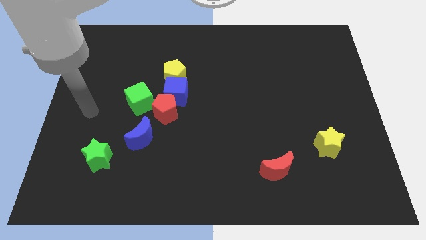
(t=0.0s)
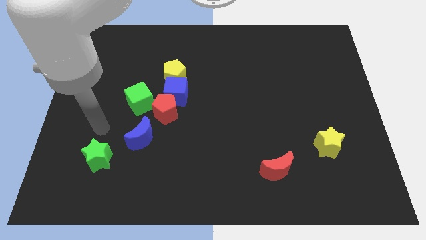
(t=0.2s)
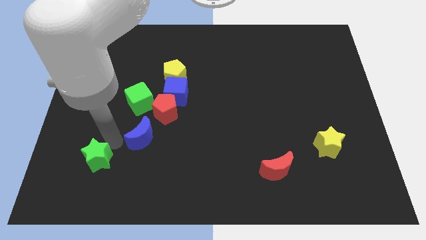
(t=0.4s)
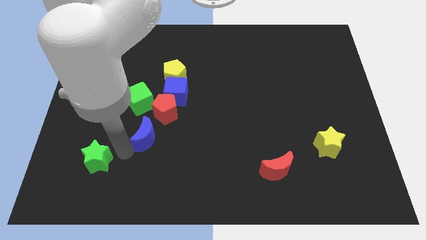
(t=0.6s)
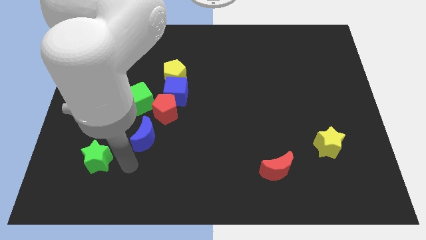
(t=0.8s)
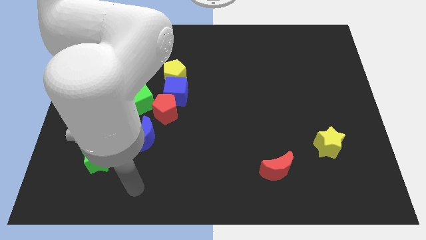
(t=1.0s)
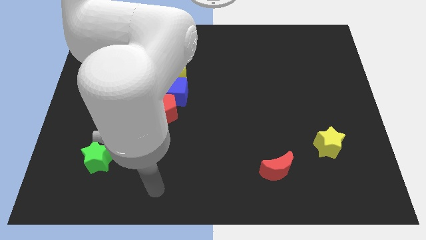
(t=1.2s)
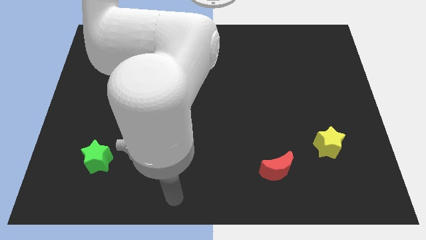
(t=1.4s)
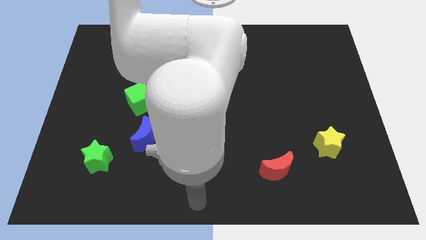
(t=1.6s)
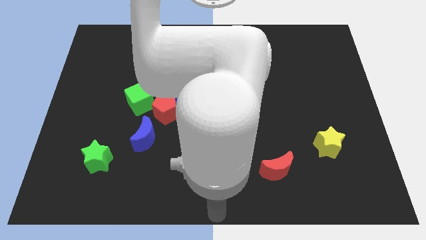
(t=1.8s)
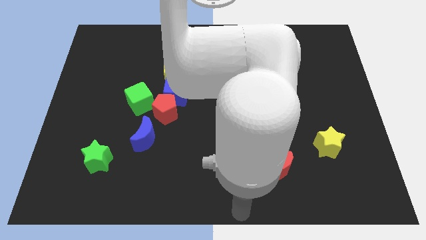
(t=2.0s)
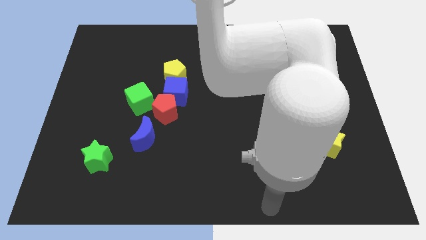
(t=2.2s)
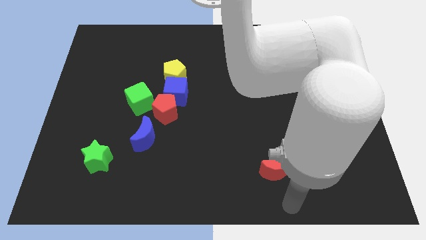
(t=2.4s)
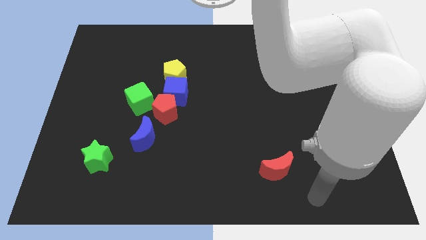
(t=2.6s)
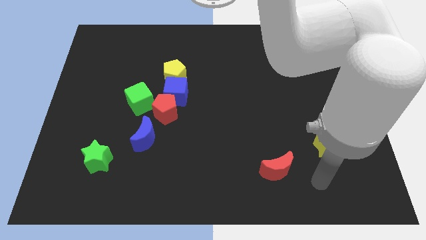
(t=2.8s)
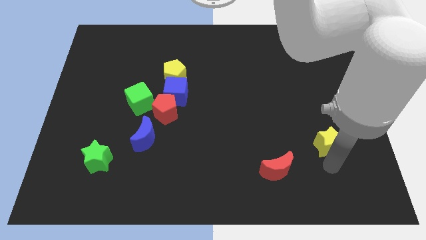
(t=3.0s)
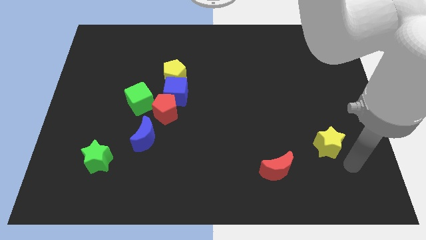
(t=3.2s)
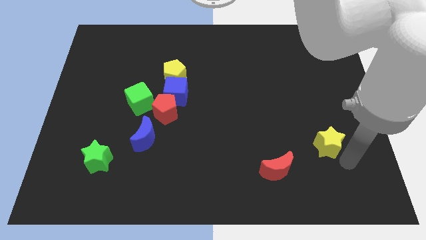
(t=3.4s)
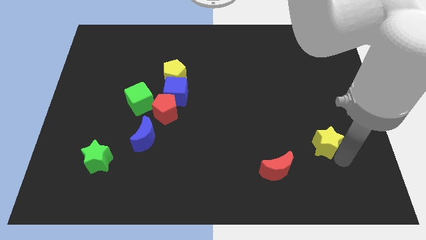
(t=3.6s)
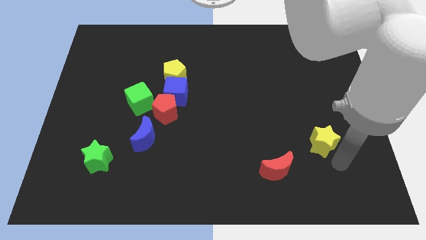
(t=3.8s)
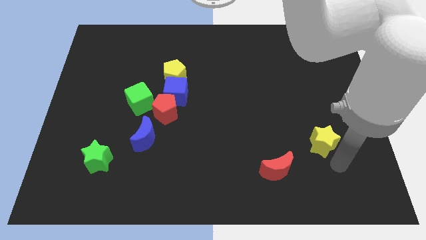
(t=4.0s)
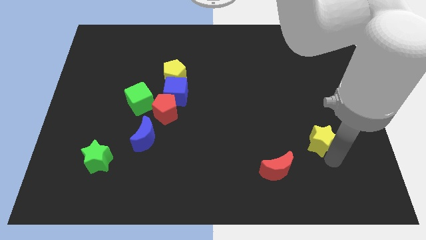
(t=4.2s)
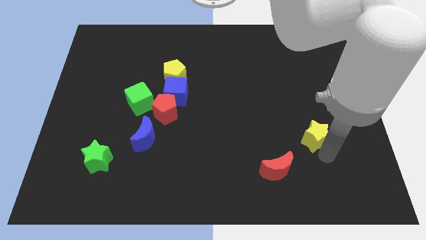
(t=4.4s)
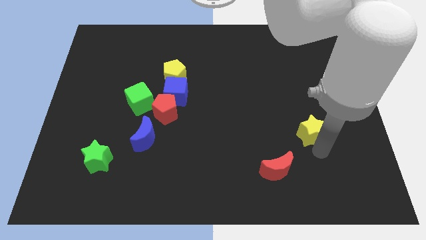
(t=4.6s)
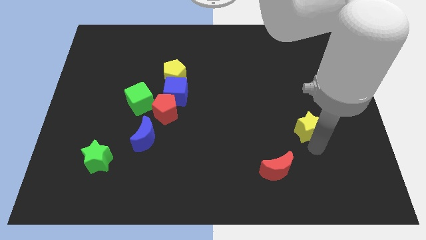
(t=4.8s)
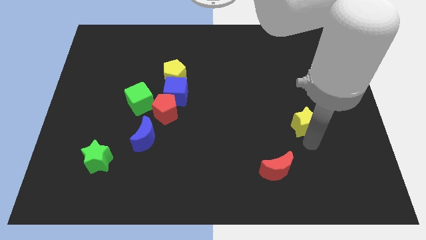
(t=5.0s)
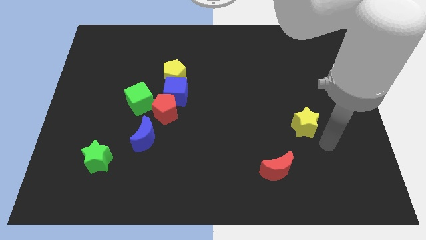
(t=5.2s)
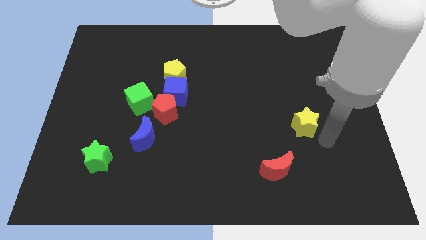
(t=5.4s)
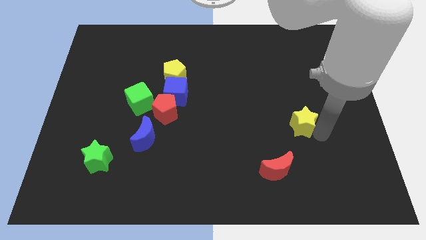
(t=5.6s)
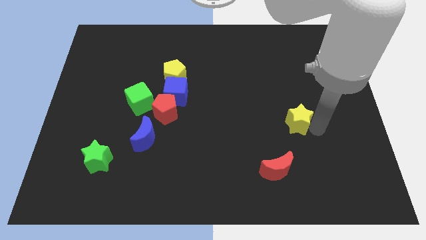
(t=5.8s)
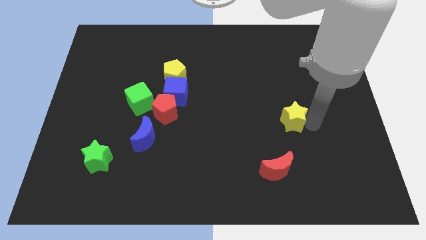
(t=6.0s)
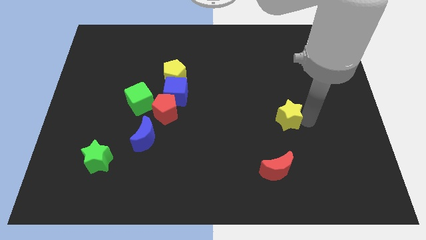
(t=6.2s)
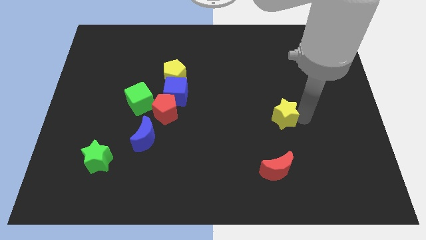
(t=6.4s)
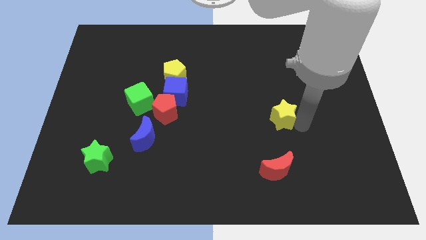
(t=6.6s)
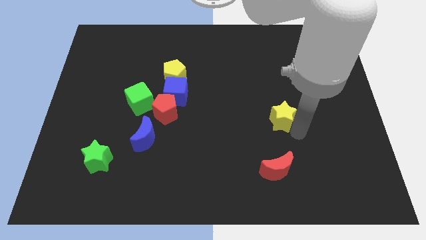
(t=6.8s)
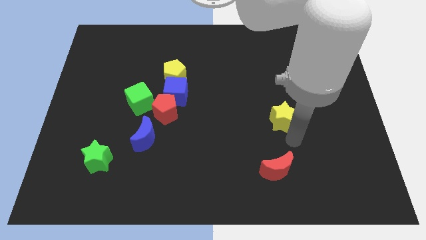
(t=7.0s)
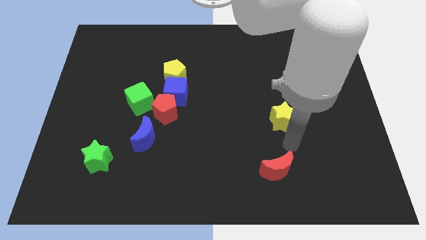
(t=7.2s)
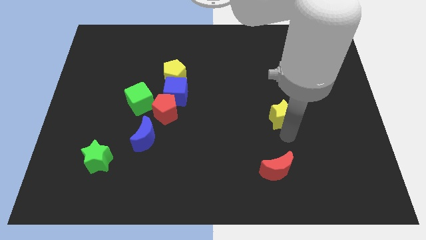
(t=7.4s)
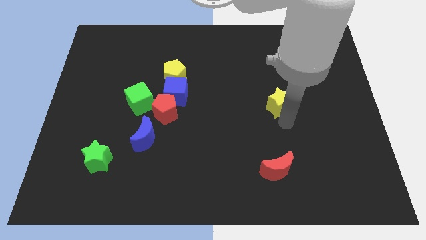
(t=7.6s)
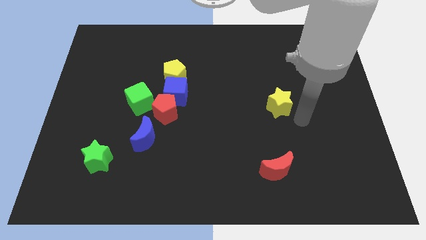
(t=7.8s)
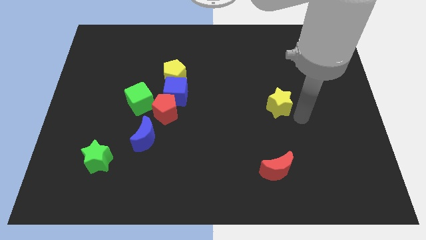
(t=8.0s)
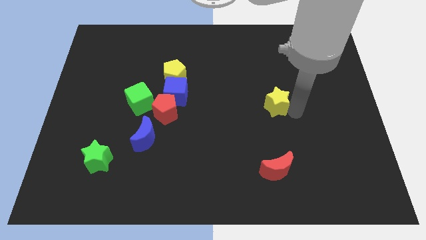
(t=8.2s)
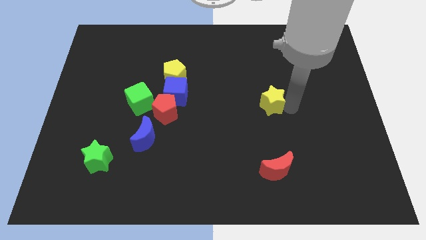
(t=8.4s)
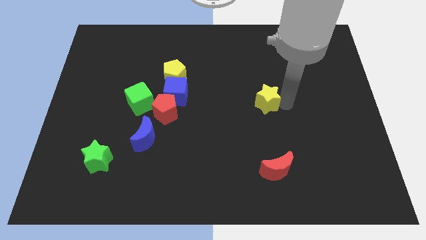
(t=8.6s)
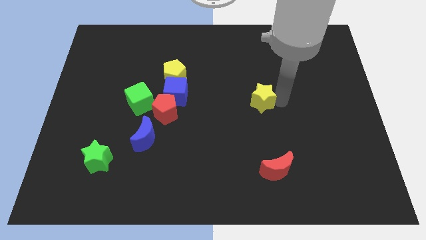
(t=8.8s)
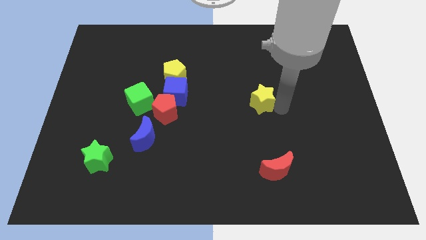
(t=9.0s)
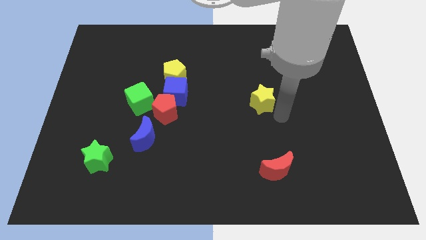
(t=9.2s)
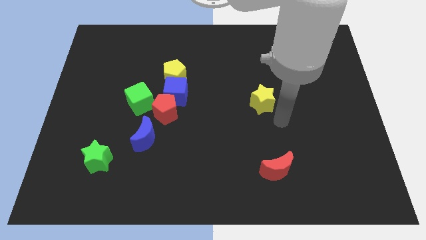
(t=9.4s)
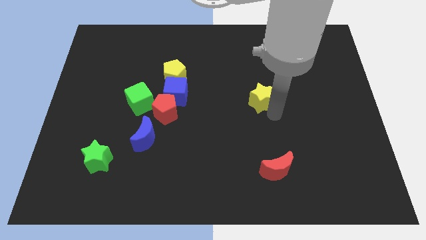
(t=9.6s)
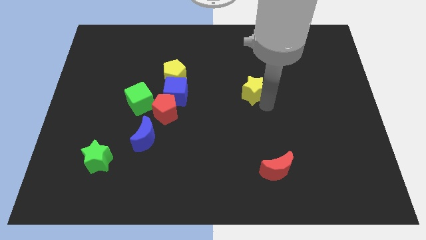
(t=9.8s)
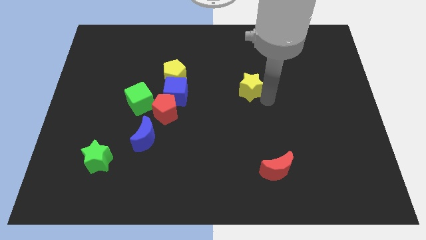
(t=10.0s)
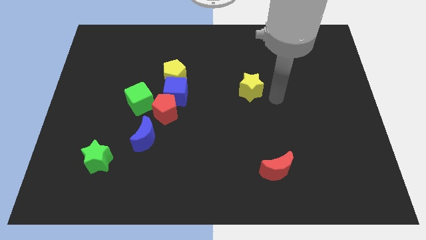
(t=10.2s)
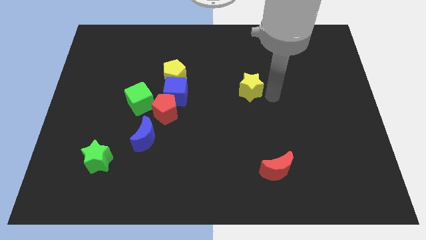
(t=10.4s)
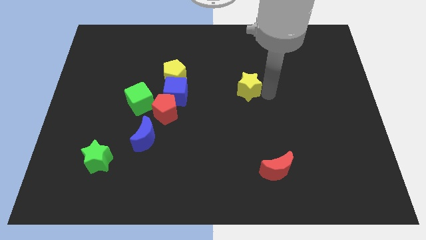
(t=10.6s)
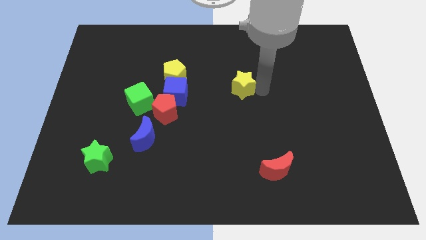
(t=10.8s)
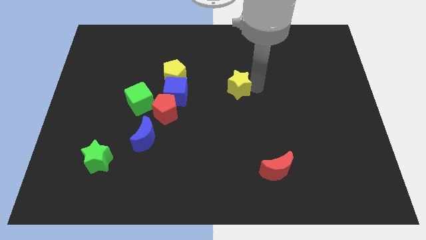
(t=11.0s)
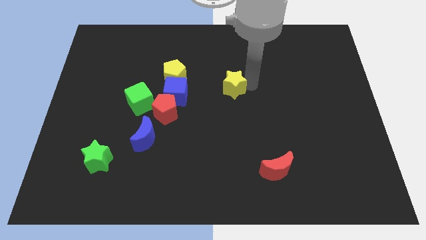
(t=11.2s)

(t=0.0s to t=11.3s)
slide the yellow star right of the yellow pentagon

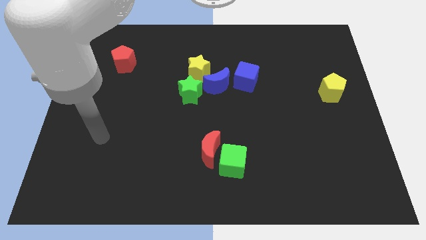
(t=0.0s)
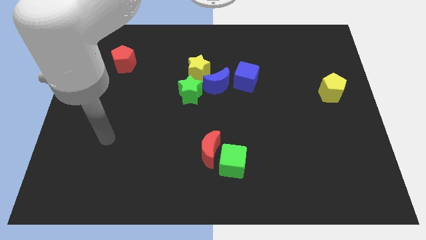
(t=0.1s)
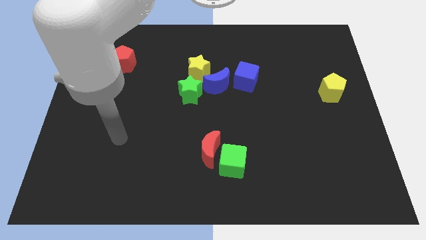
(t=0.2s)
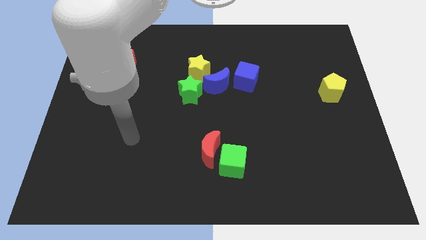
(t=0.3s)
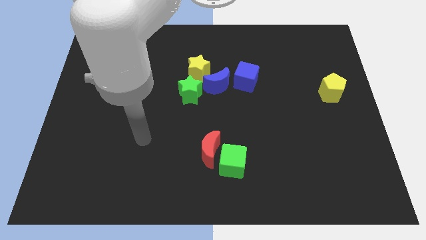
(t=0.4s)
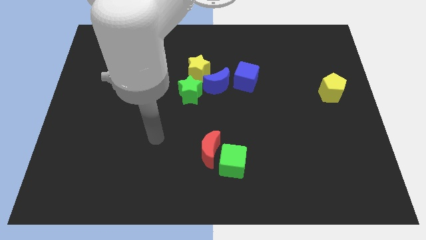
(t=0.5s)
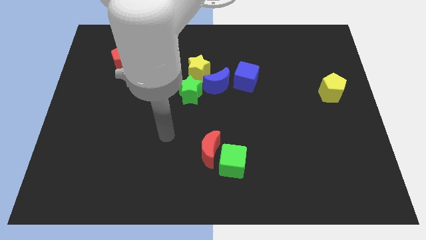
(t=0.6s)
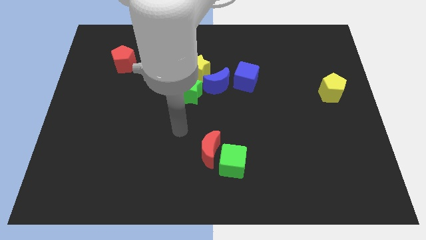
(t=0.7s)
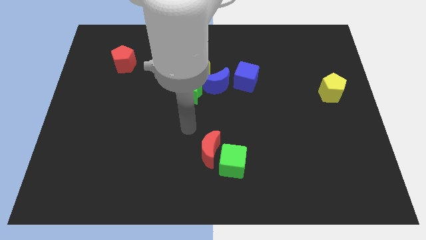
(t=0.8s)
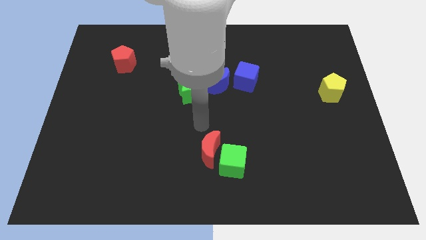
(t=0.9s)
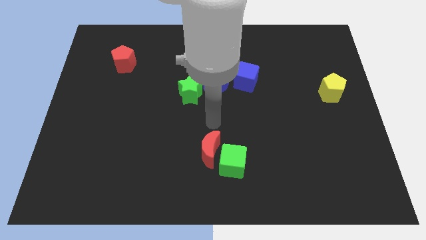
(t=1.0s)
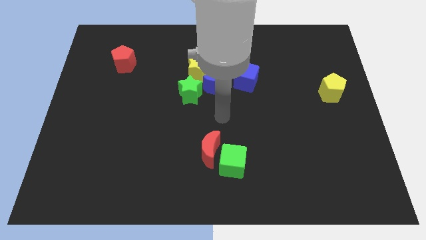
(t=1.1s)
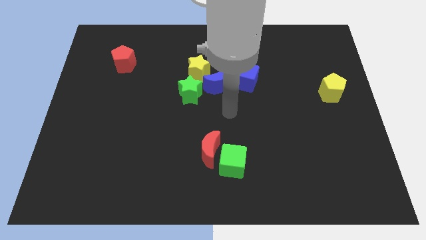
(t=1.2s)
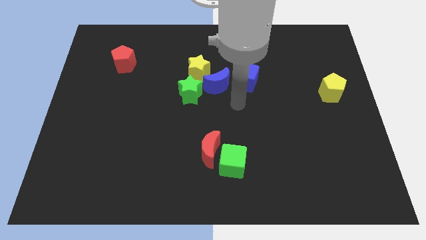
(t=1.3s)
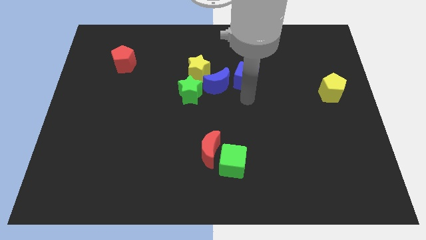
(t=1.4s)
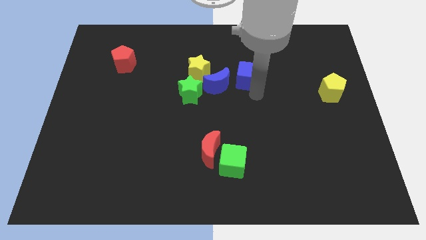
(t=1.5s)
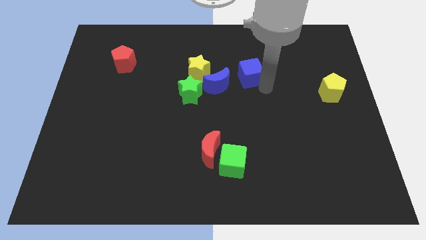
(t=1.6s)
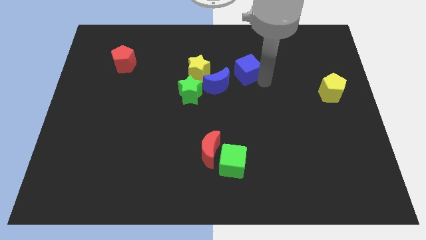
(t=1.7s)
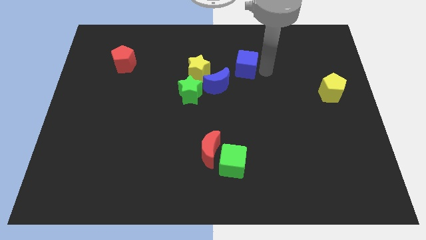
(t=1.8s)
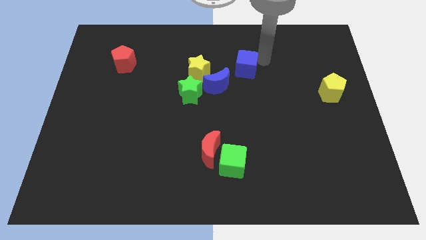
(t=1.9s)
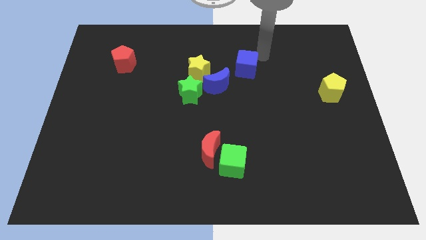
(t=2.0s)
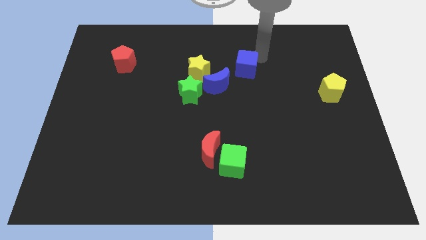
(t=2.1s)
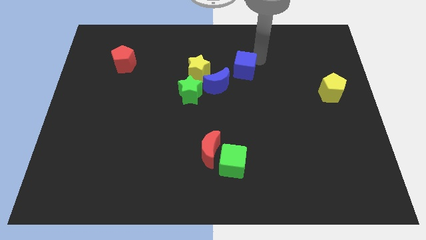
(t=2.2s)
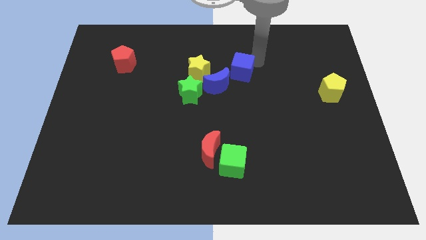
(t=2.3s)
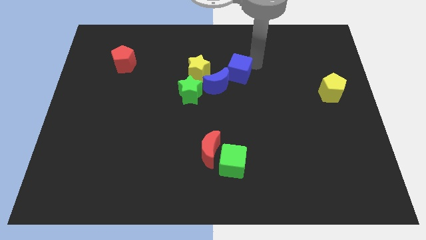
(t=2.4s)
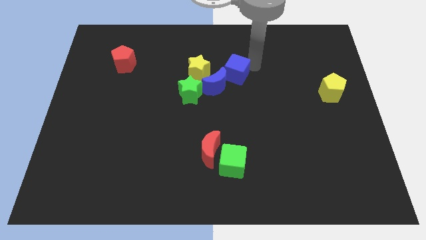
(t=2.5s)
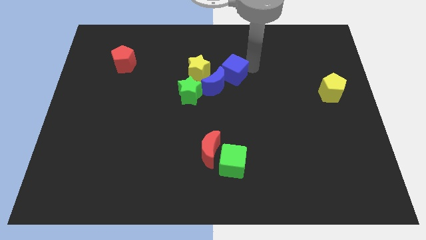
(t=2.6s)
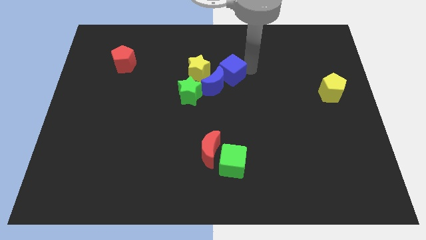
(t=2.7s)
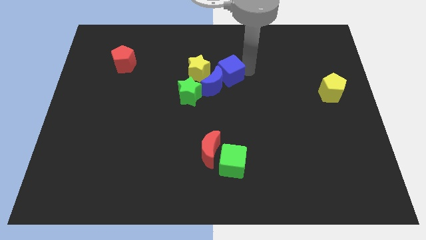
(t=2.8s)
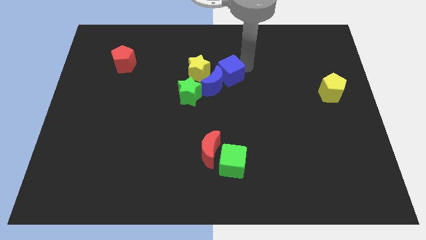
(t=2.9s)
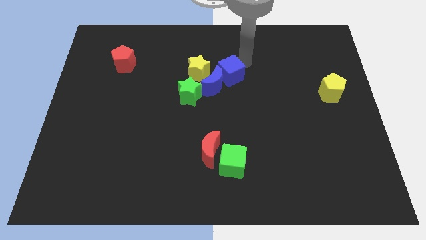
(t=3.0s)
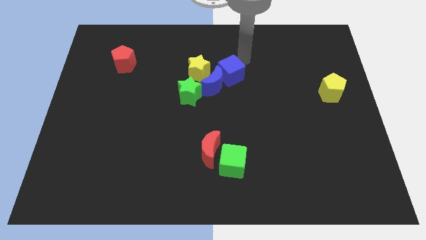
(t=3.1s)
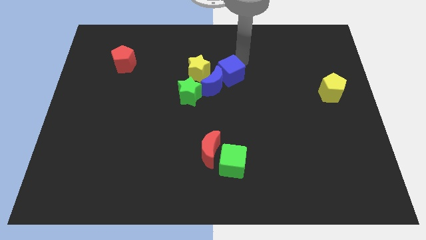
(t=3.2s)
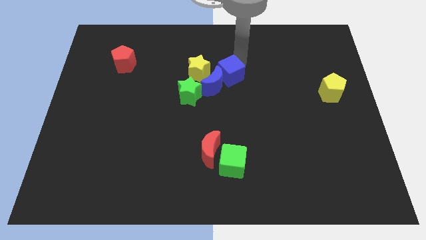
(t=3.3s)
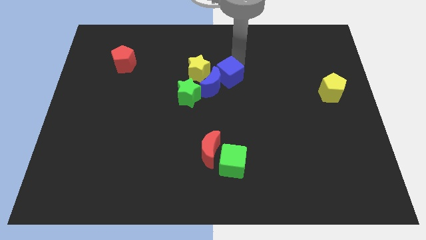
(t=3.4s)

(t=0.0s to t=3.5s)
push the blue cube diagonally down and to the right of the yellow star
